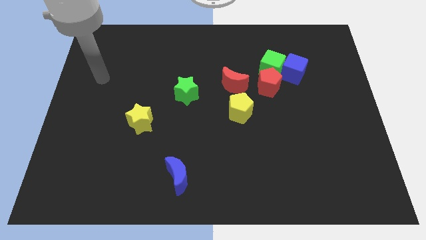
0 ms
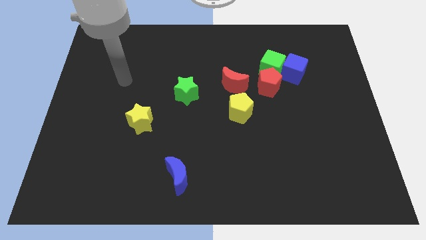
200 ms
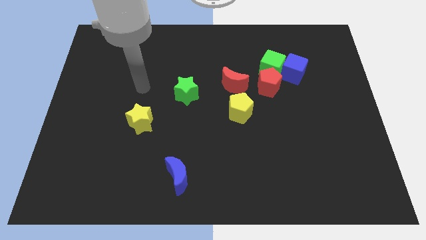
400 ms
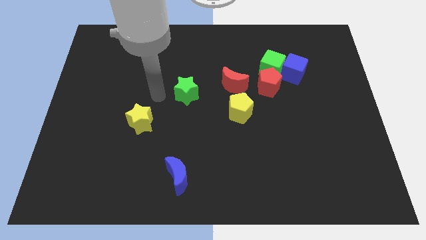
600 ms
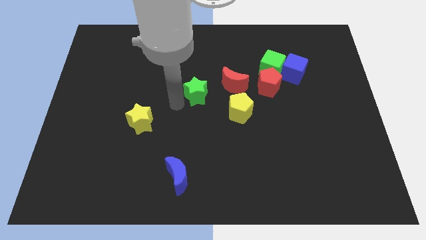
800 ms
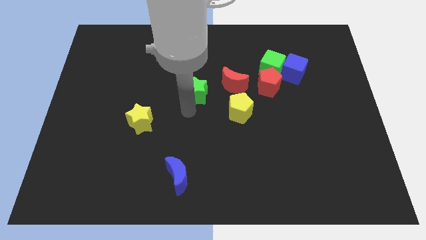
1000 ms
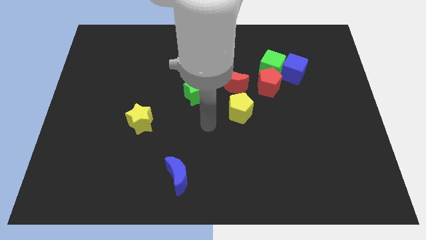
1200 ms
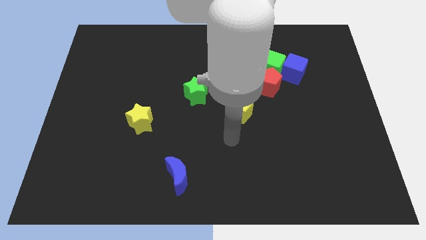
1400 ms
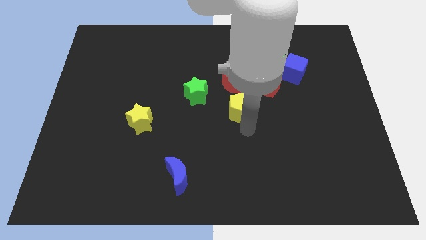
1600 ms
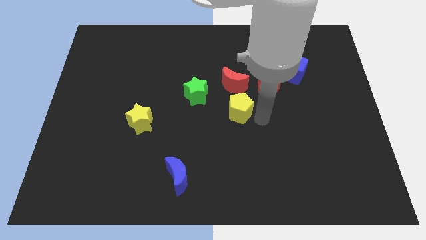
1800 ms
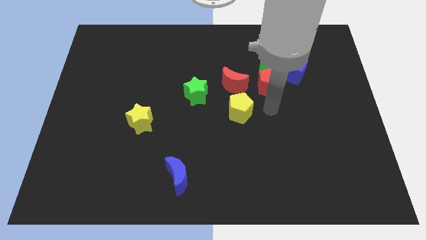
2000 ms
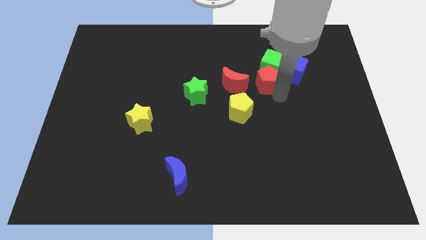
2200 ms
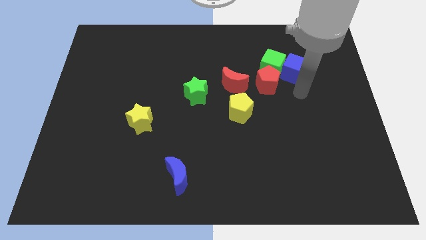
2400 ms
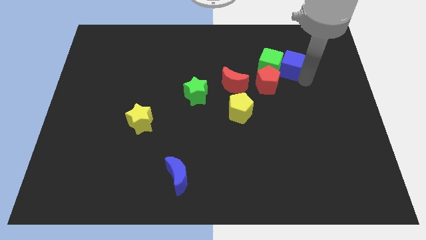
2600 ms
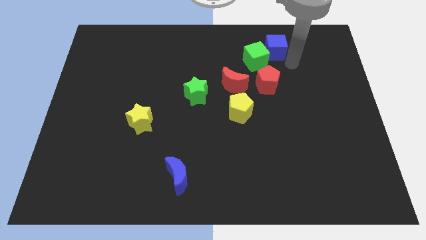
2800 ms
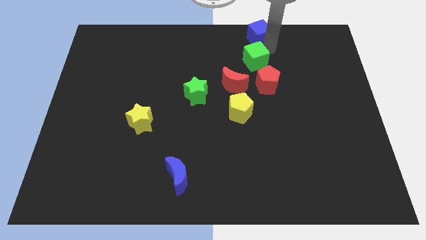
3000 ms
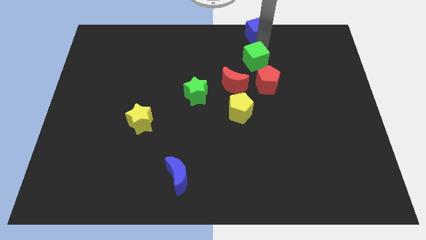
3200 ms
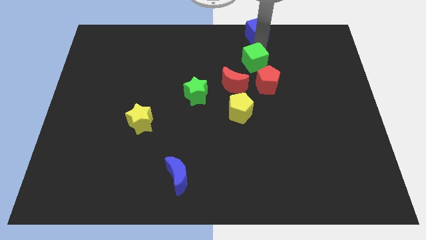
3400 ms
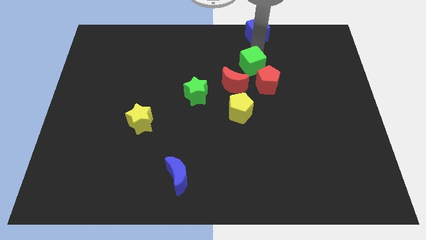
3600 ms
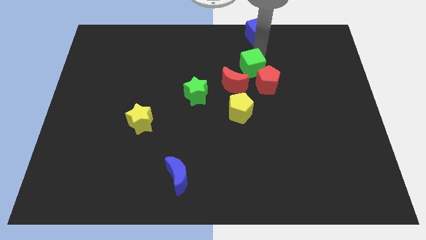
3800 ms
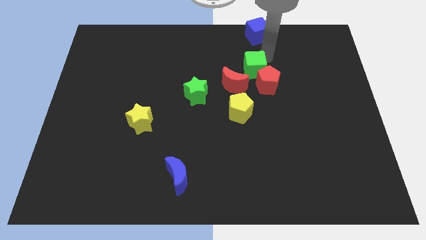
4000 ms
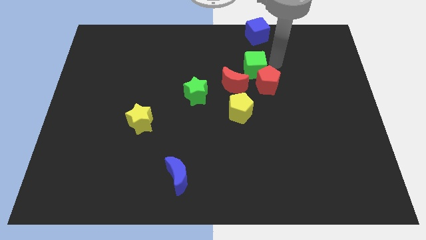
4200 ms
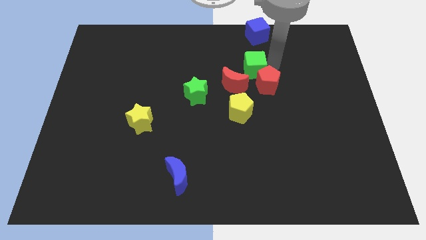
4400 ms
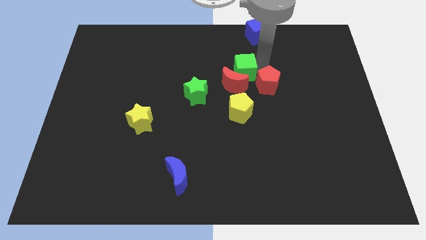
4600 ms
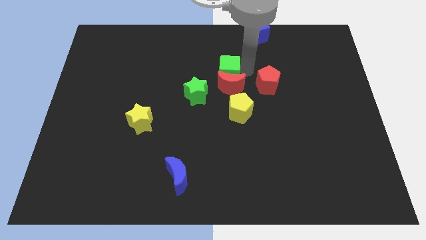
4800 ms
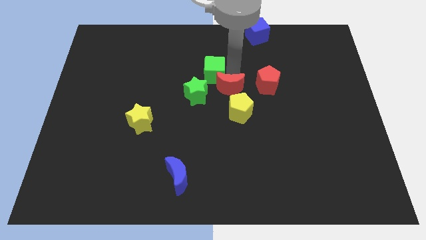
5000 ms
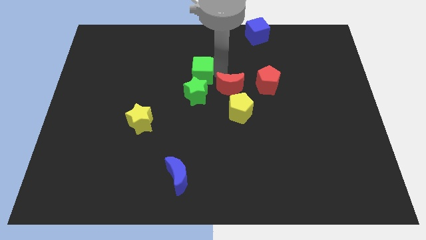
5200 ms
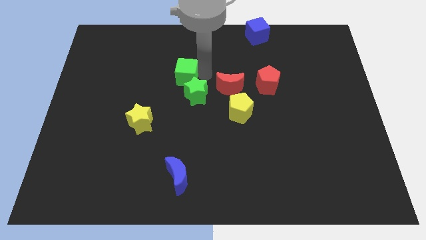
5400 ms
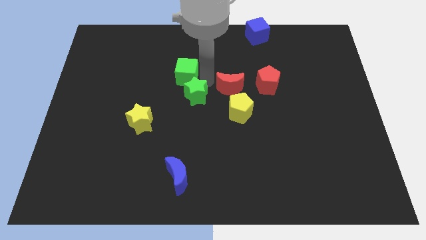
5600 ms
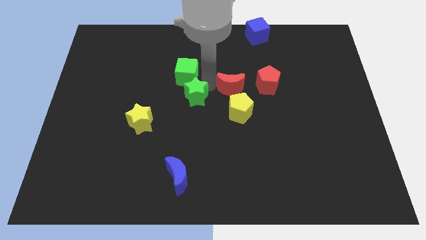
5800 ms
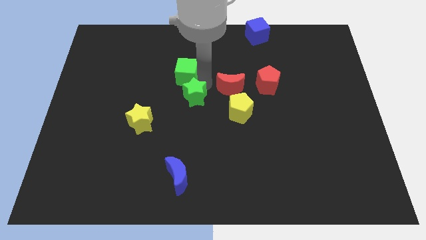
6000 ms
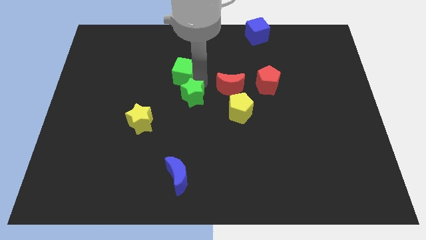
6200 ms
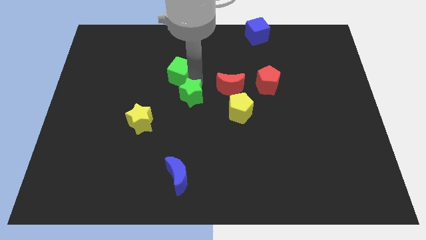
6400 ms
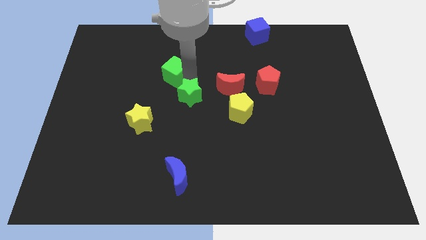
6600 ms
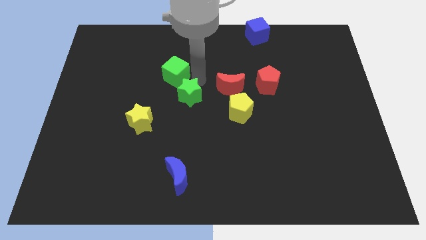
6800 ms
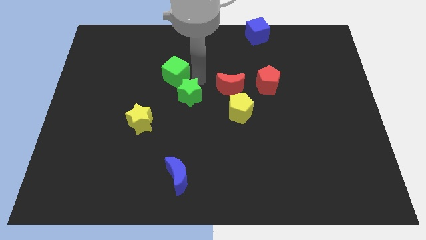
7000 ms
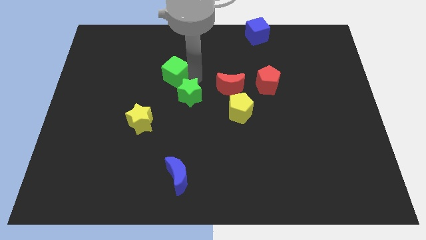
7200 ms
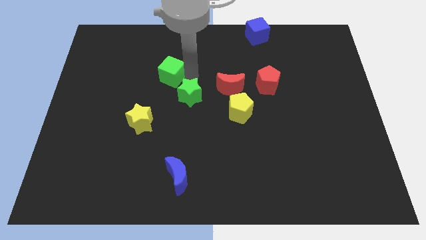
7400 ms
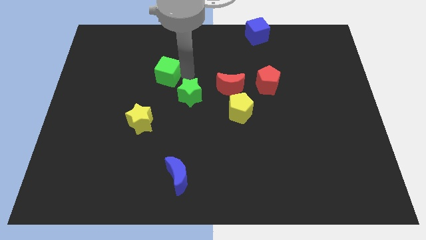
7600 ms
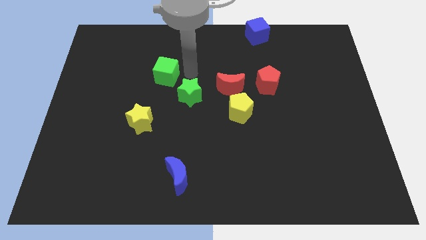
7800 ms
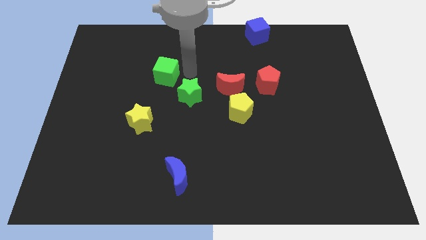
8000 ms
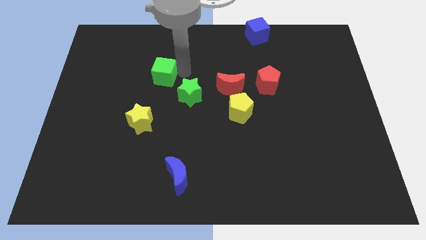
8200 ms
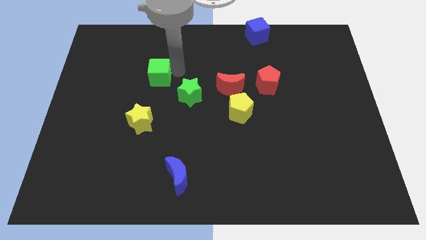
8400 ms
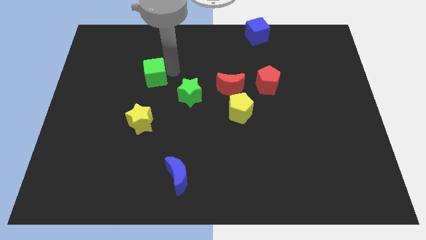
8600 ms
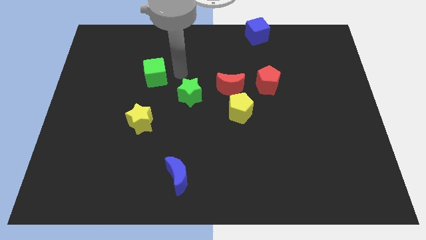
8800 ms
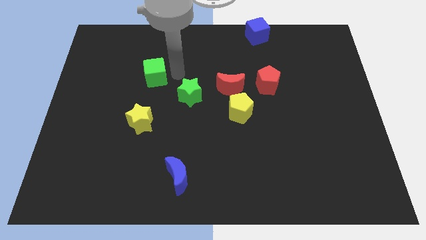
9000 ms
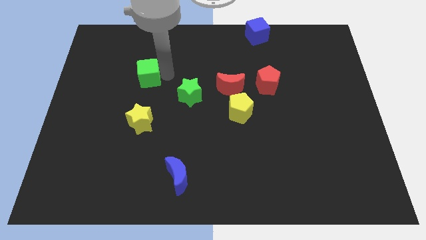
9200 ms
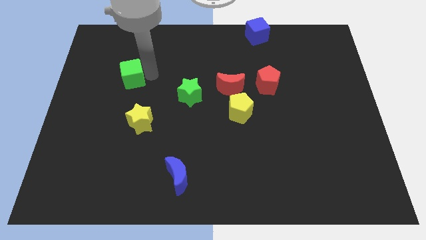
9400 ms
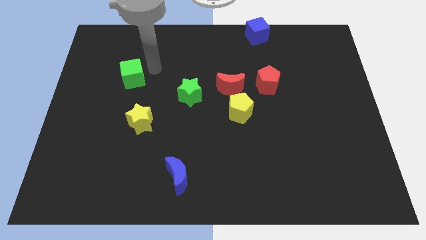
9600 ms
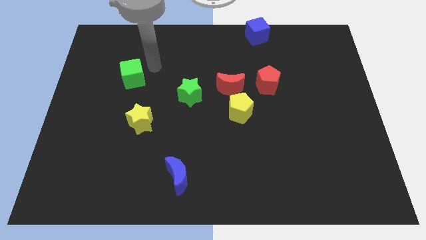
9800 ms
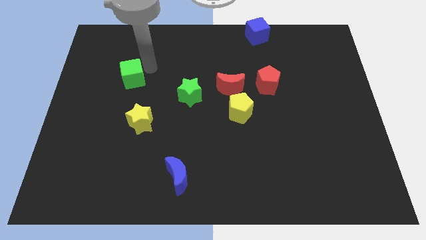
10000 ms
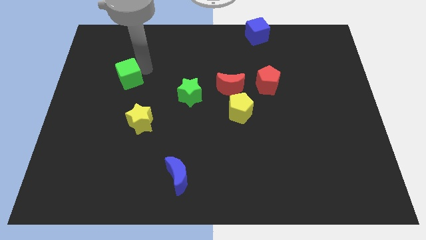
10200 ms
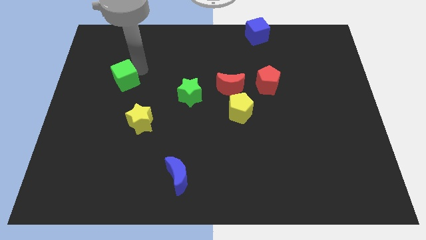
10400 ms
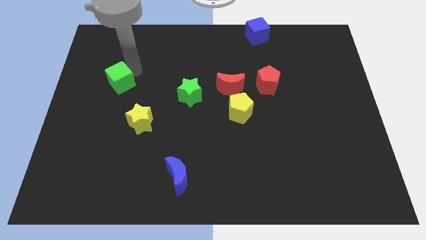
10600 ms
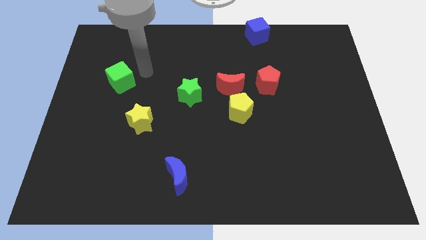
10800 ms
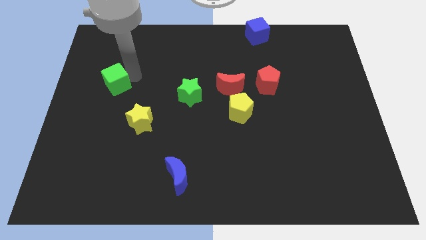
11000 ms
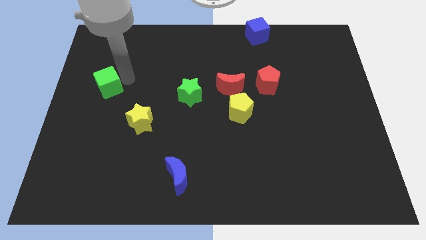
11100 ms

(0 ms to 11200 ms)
move the green cube to the left side of the board
